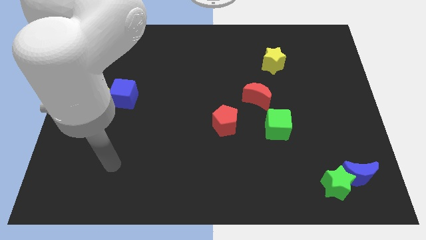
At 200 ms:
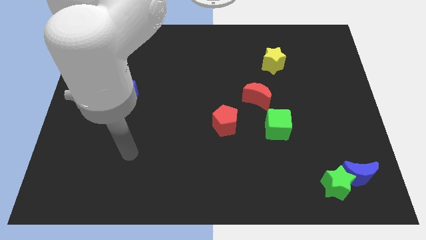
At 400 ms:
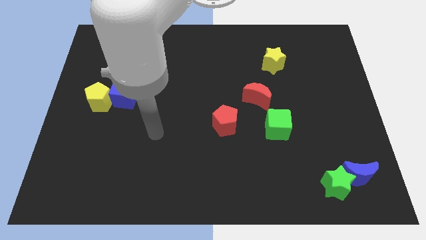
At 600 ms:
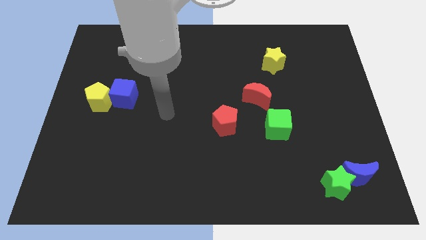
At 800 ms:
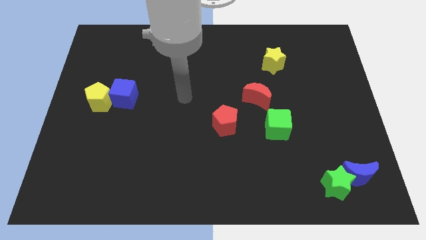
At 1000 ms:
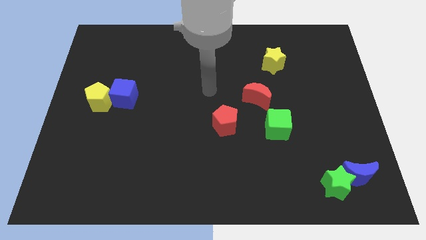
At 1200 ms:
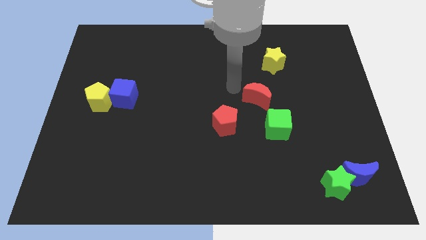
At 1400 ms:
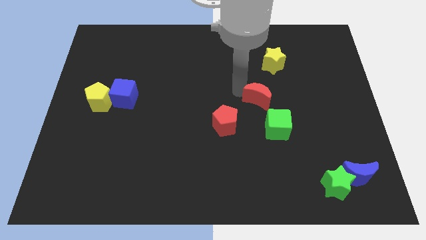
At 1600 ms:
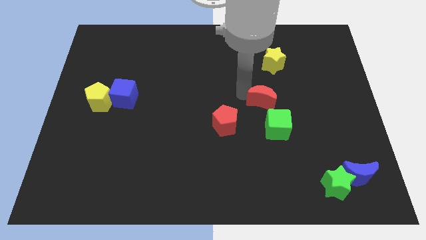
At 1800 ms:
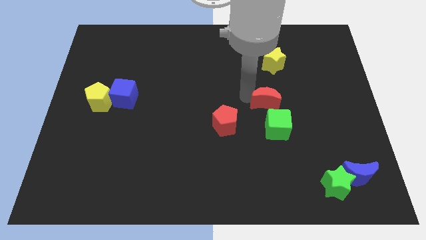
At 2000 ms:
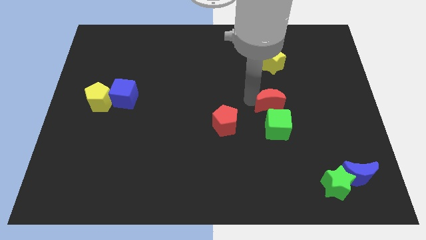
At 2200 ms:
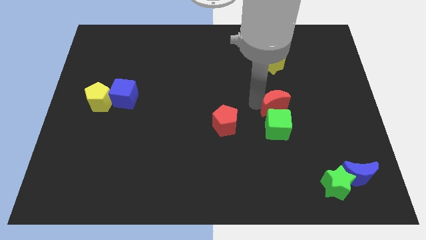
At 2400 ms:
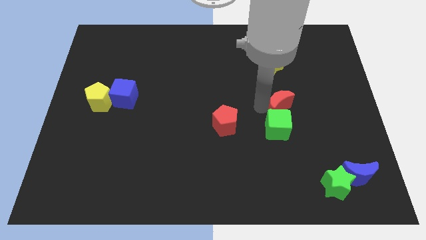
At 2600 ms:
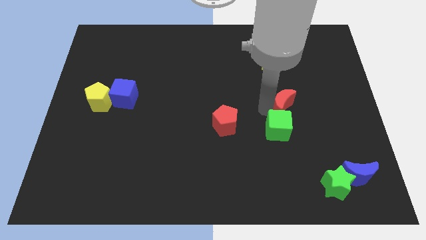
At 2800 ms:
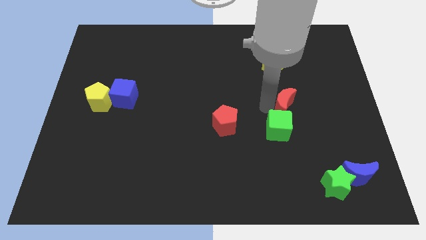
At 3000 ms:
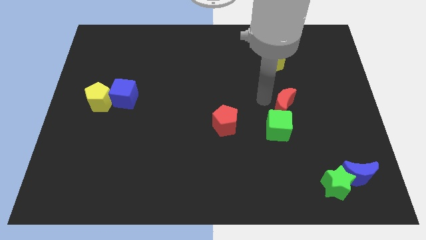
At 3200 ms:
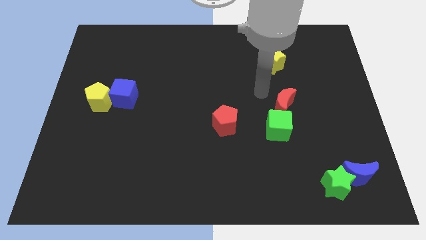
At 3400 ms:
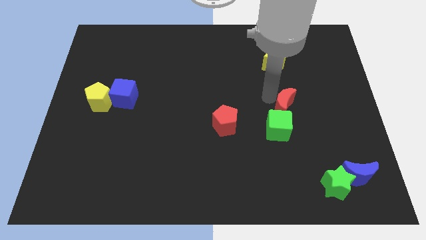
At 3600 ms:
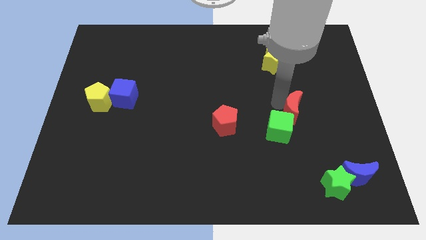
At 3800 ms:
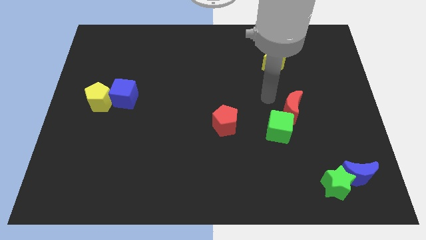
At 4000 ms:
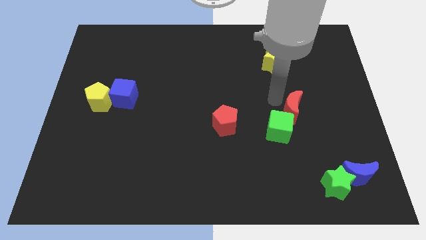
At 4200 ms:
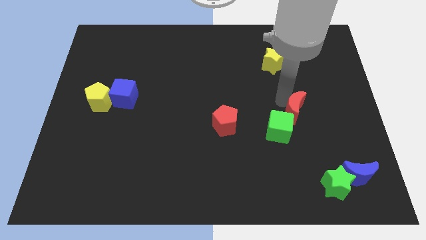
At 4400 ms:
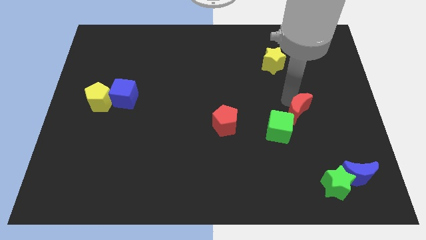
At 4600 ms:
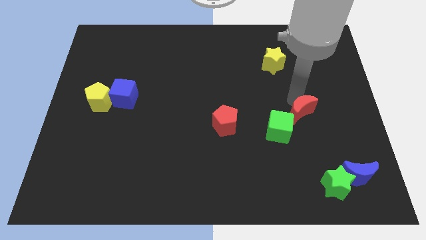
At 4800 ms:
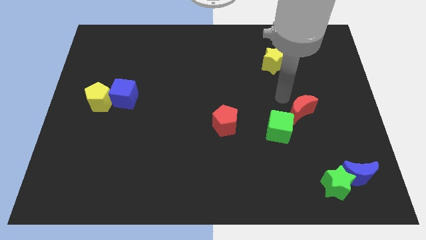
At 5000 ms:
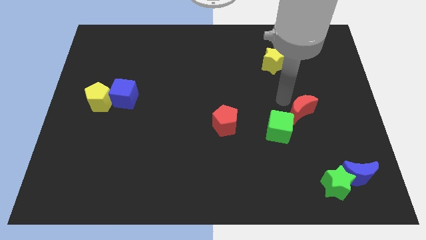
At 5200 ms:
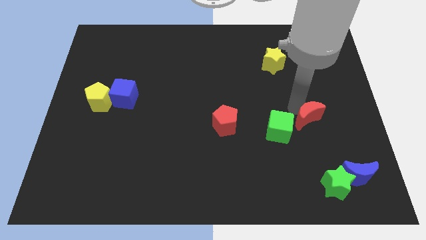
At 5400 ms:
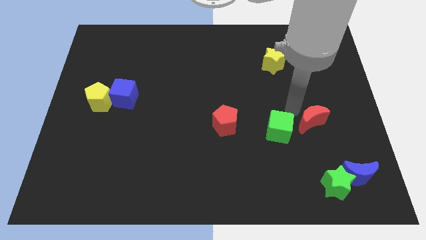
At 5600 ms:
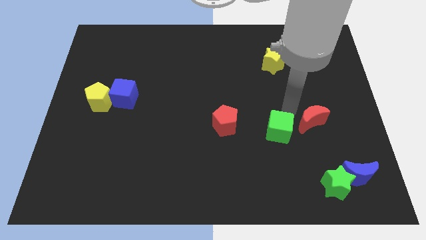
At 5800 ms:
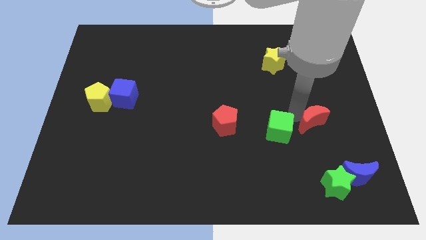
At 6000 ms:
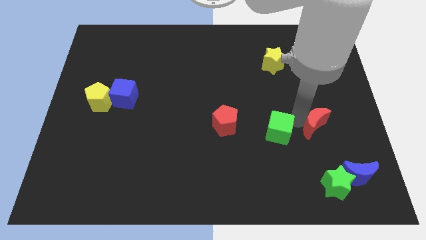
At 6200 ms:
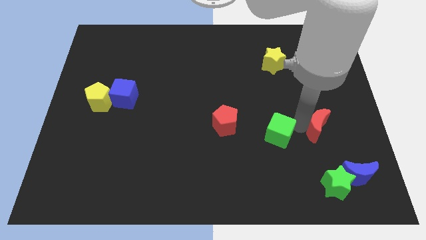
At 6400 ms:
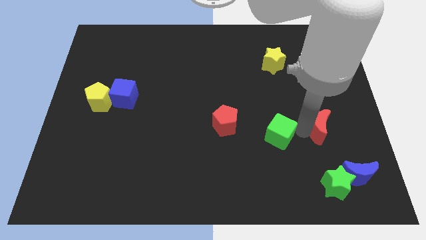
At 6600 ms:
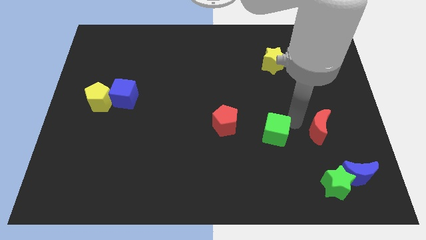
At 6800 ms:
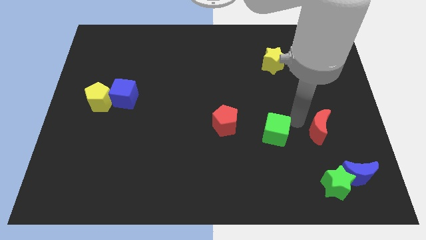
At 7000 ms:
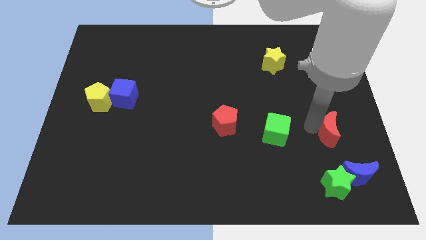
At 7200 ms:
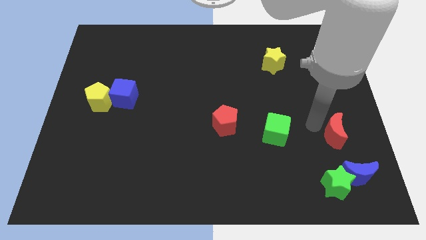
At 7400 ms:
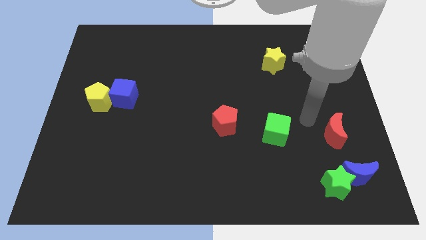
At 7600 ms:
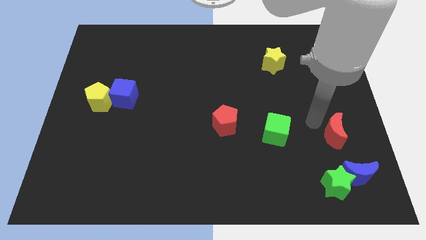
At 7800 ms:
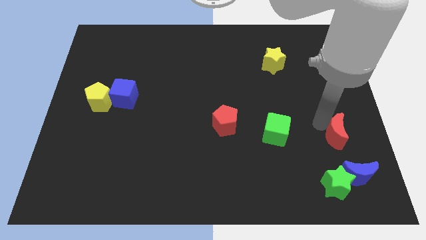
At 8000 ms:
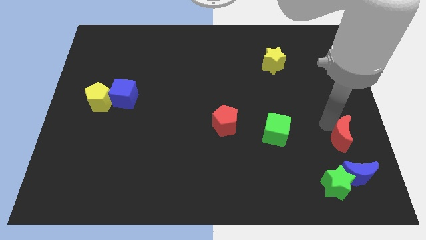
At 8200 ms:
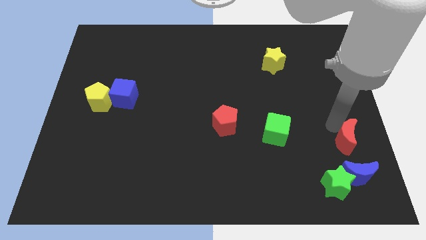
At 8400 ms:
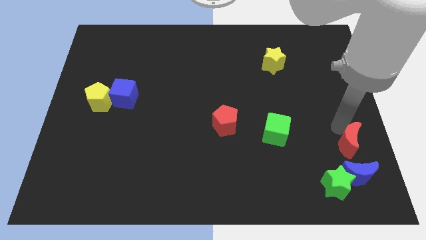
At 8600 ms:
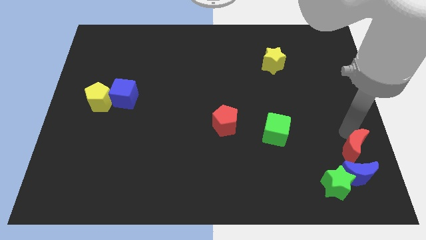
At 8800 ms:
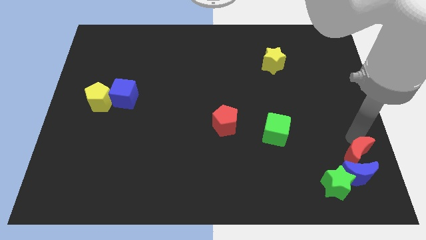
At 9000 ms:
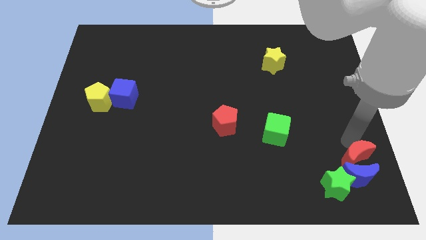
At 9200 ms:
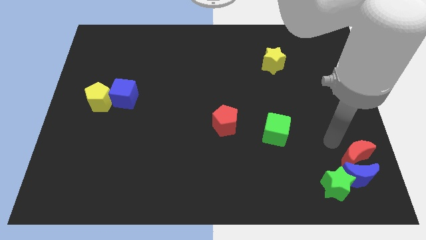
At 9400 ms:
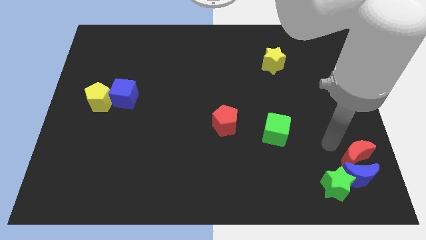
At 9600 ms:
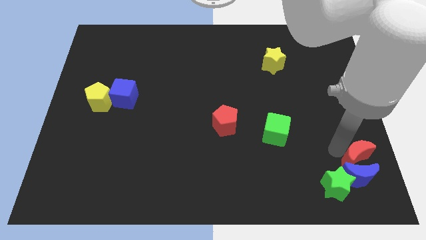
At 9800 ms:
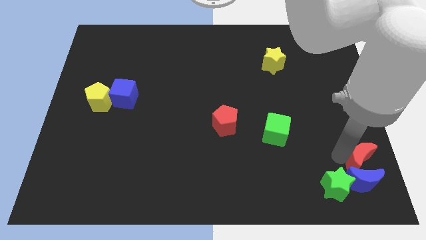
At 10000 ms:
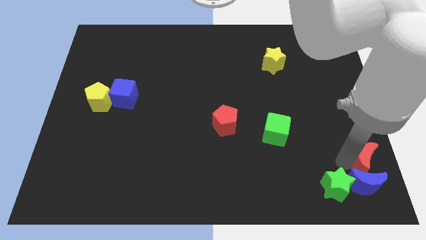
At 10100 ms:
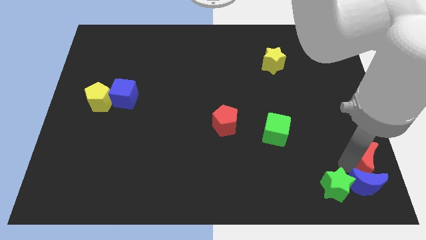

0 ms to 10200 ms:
slide the red moon to the bottom right of the board

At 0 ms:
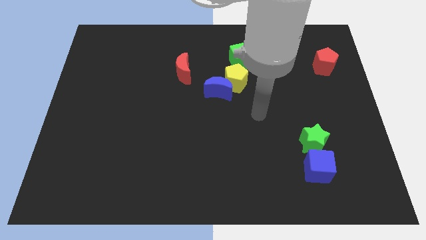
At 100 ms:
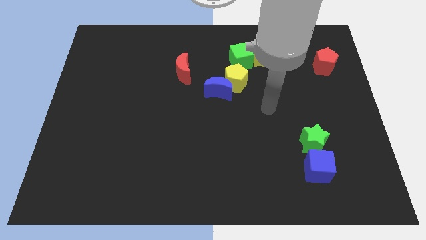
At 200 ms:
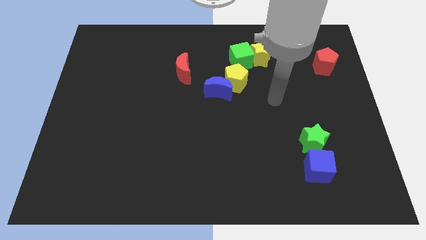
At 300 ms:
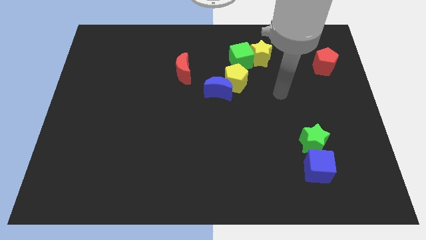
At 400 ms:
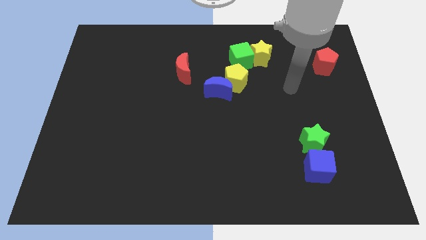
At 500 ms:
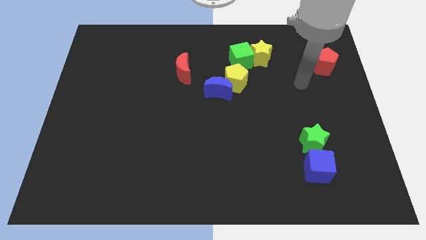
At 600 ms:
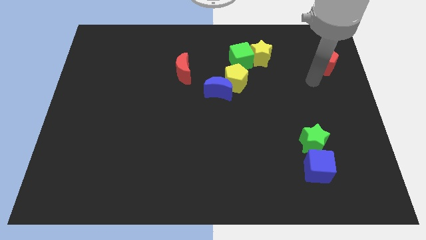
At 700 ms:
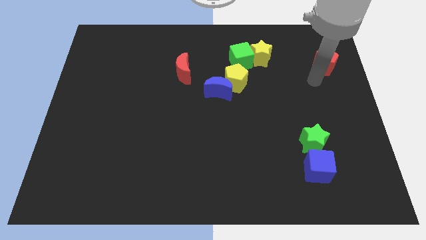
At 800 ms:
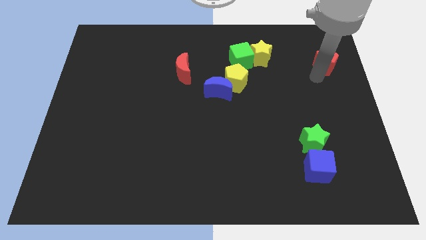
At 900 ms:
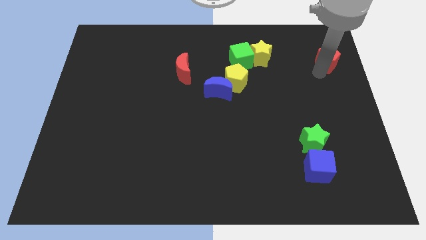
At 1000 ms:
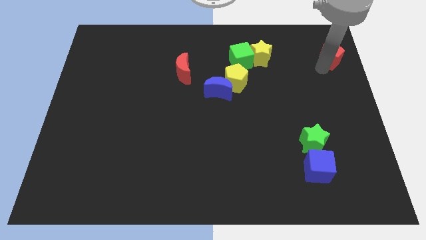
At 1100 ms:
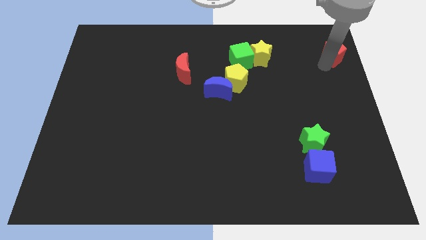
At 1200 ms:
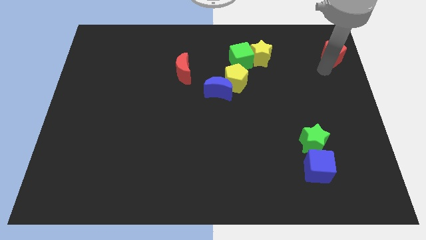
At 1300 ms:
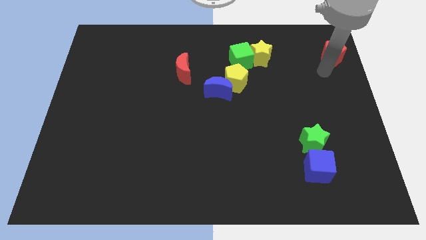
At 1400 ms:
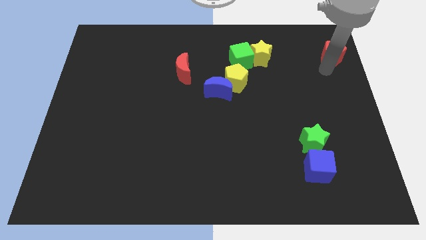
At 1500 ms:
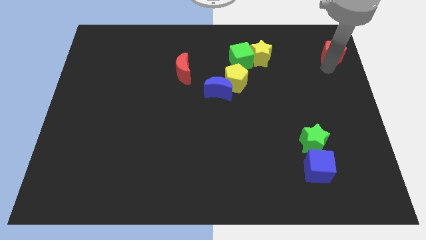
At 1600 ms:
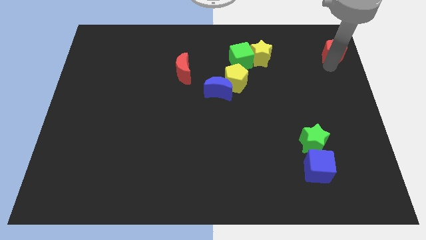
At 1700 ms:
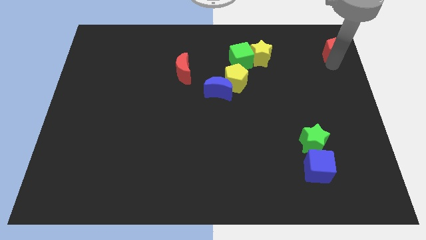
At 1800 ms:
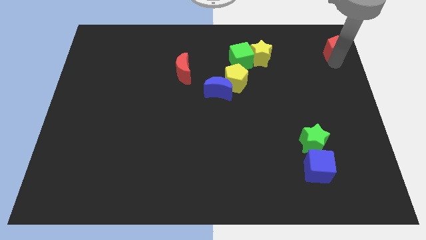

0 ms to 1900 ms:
put the red pentagon to the top right of the board

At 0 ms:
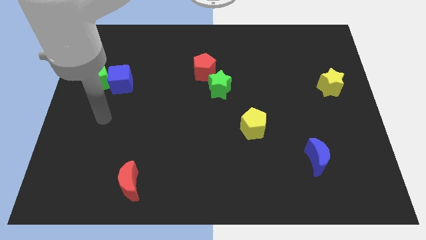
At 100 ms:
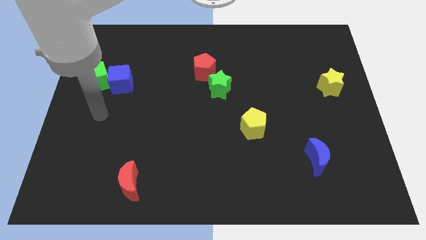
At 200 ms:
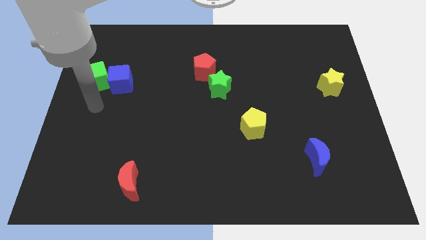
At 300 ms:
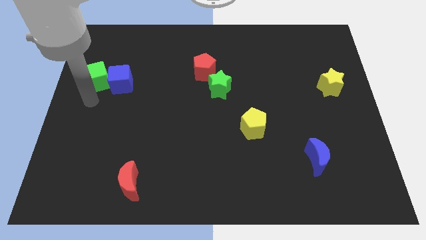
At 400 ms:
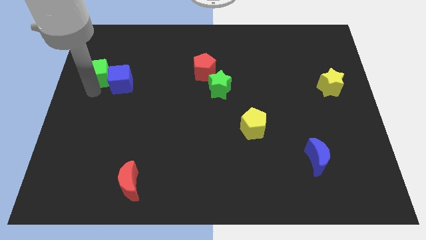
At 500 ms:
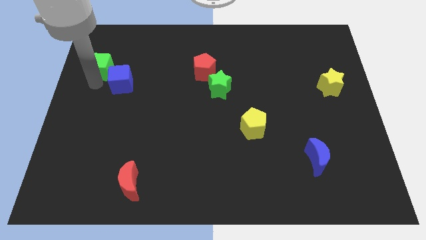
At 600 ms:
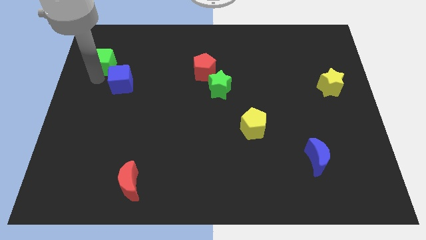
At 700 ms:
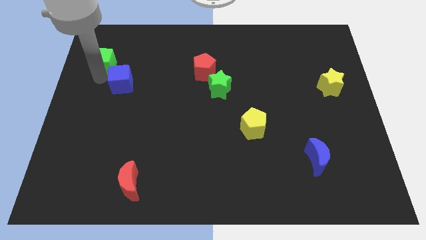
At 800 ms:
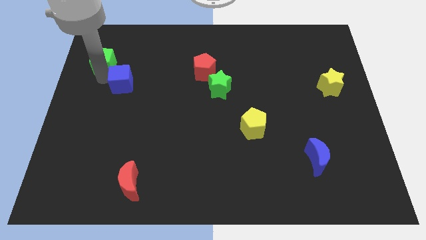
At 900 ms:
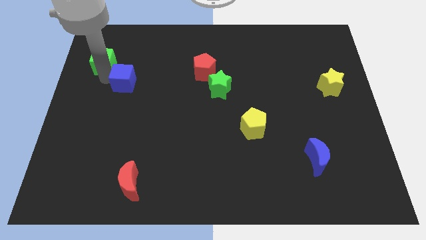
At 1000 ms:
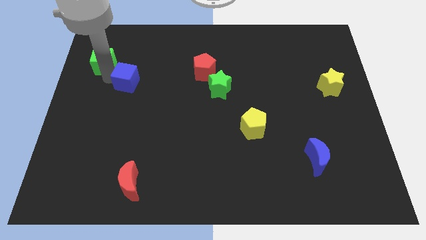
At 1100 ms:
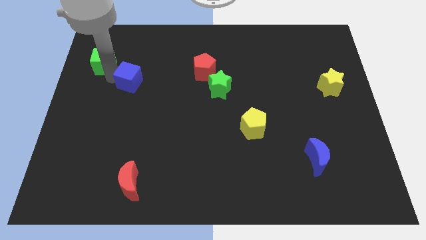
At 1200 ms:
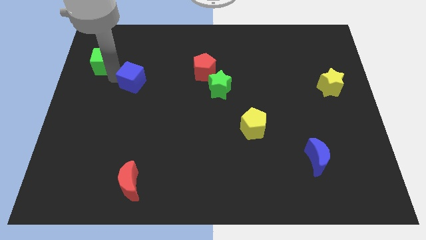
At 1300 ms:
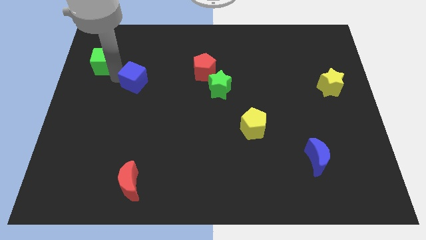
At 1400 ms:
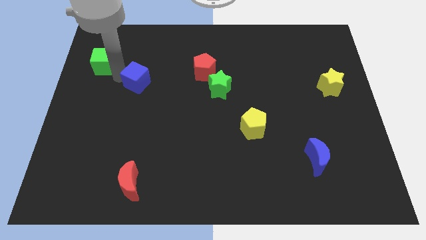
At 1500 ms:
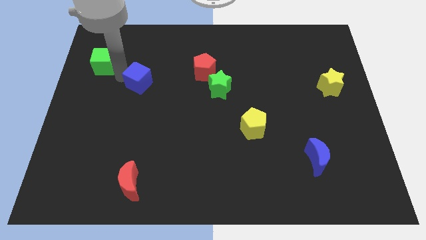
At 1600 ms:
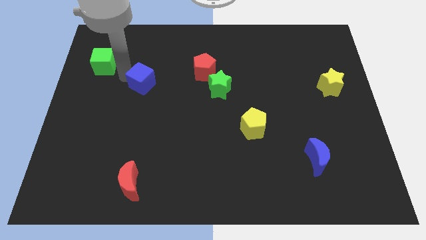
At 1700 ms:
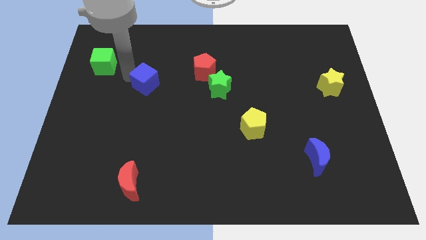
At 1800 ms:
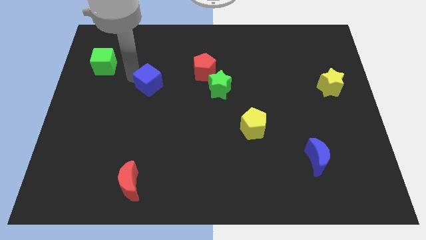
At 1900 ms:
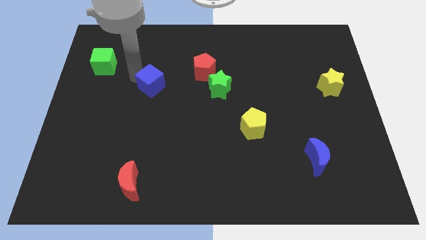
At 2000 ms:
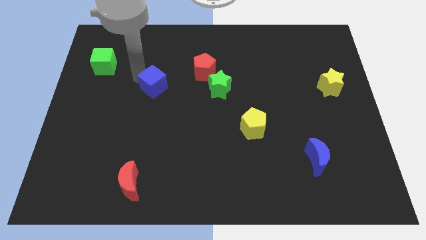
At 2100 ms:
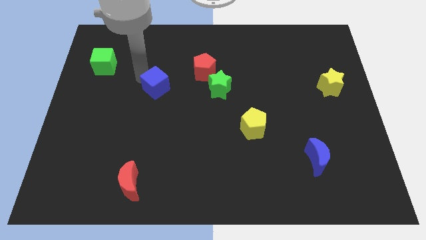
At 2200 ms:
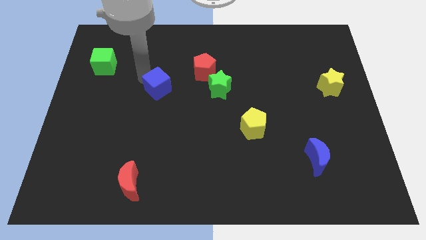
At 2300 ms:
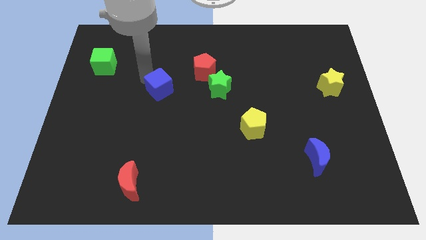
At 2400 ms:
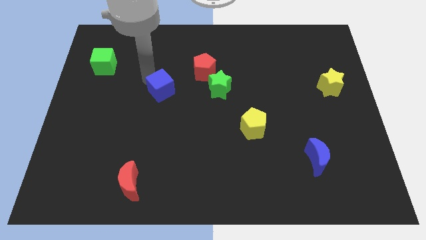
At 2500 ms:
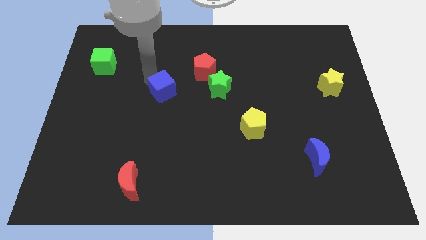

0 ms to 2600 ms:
push the blue cube to the center of the board
